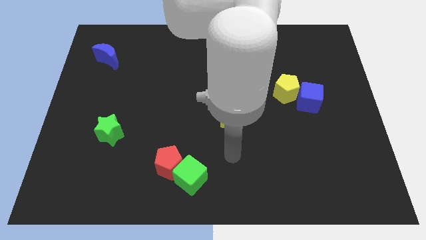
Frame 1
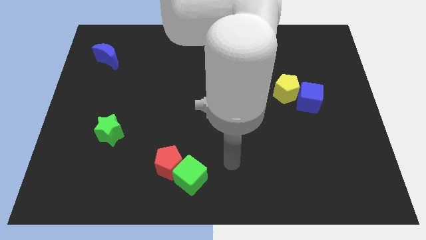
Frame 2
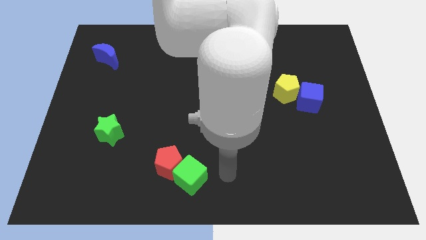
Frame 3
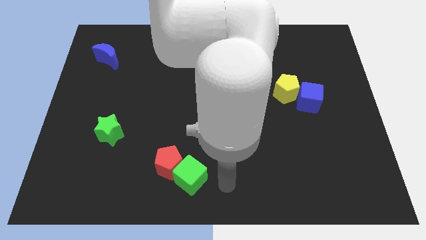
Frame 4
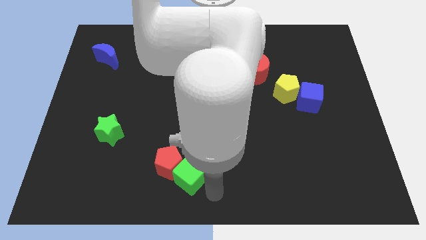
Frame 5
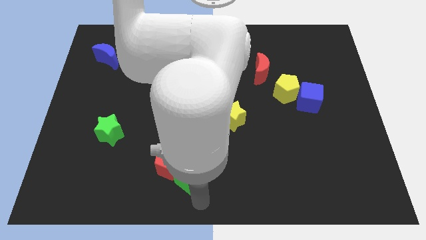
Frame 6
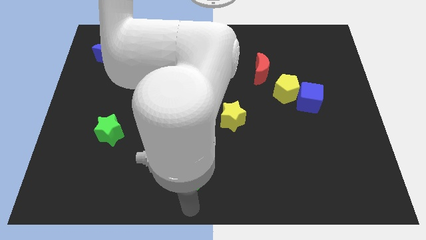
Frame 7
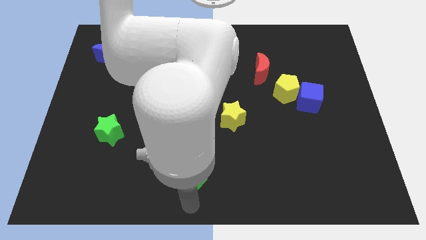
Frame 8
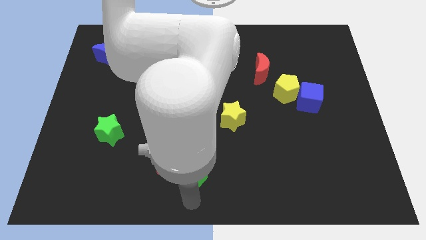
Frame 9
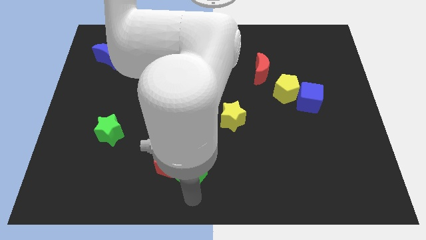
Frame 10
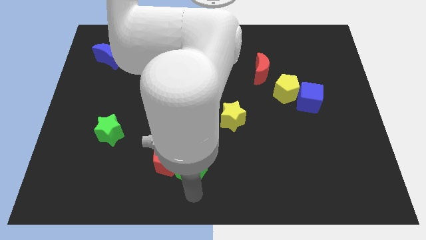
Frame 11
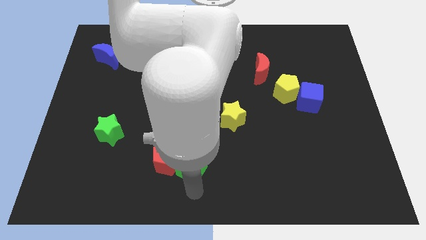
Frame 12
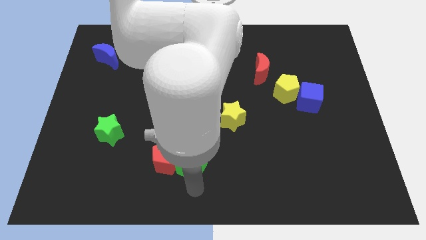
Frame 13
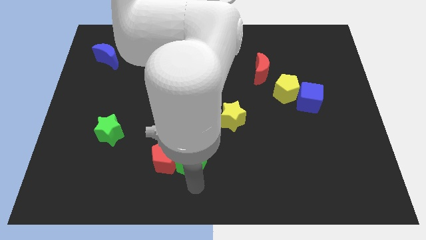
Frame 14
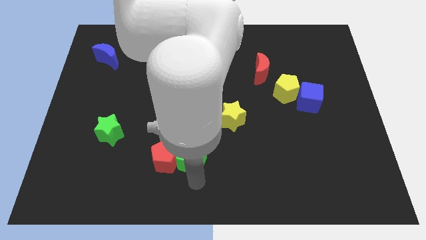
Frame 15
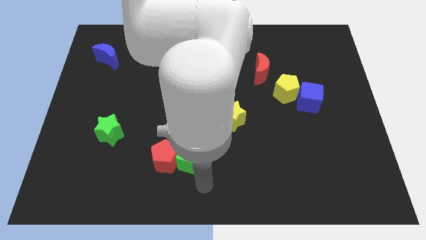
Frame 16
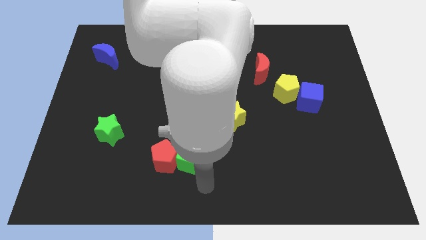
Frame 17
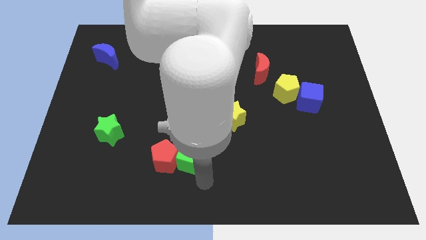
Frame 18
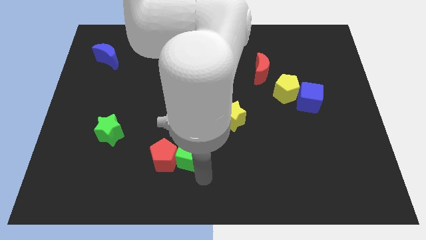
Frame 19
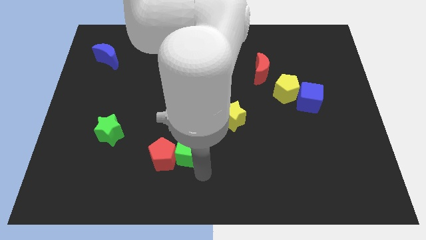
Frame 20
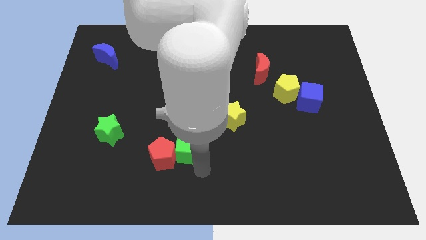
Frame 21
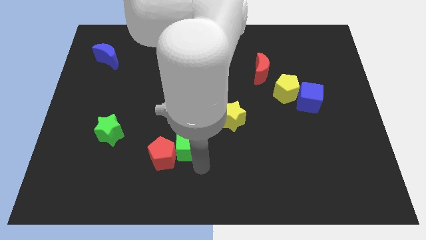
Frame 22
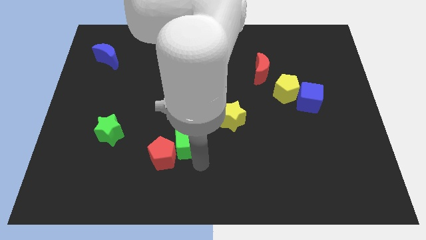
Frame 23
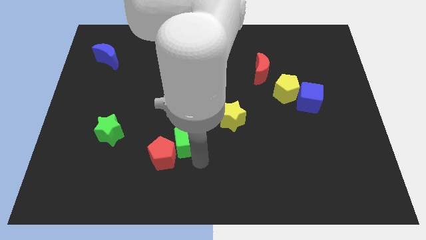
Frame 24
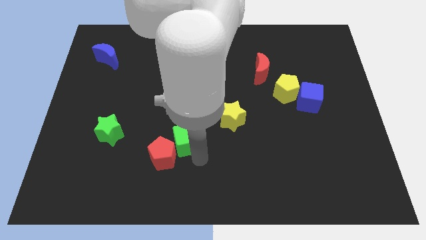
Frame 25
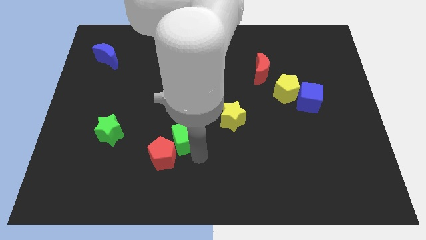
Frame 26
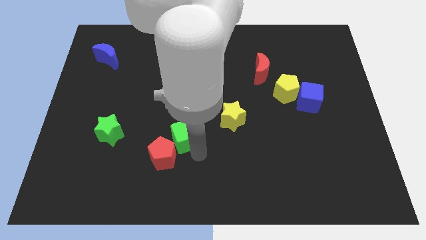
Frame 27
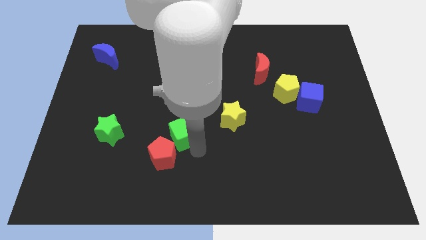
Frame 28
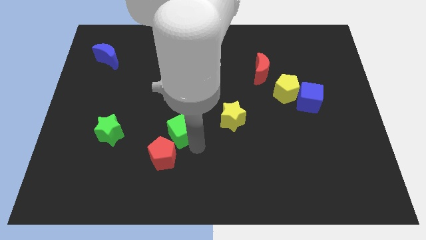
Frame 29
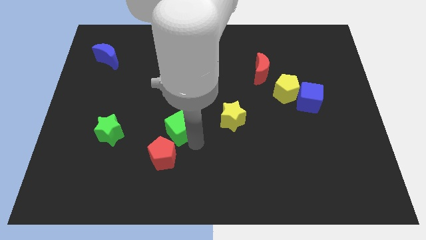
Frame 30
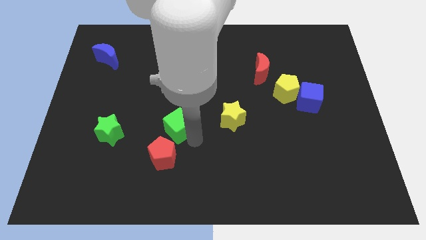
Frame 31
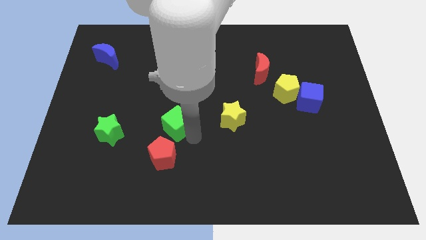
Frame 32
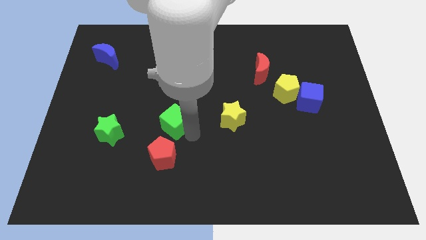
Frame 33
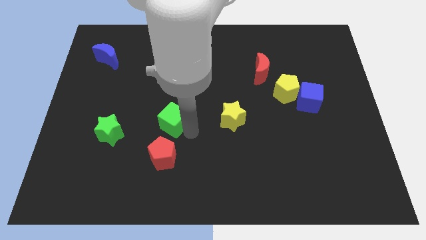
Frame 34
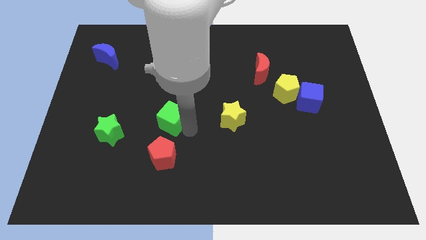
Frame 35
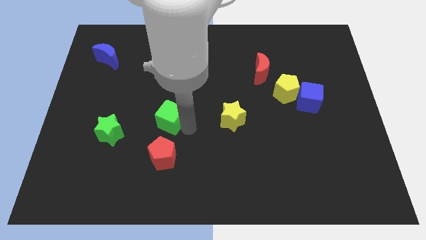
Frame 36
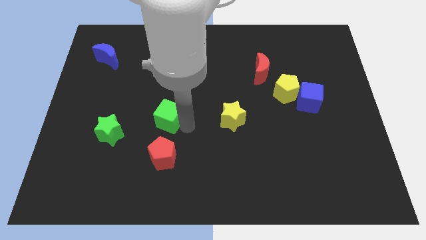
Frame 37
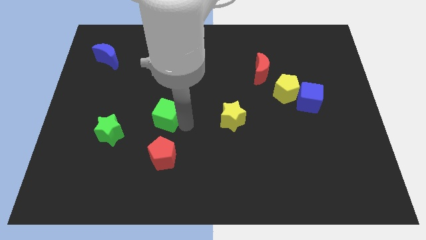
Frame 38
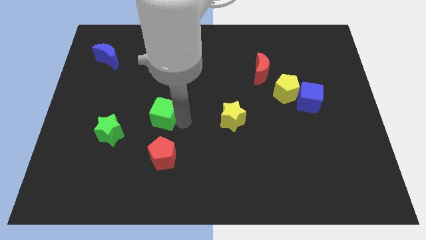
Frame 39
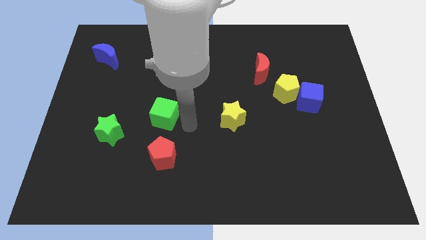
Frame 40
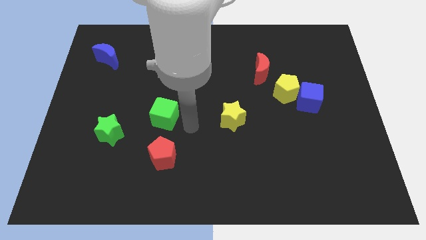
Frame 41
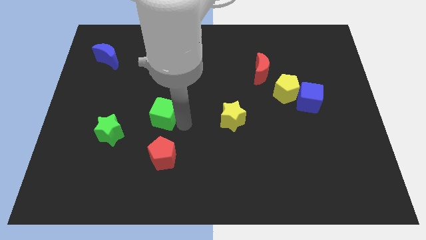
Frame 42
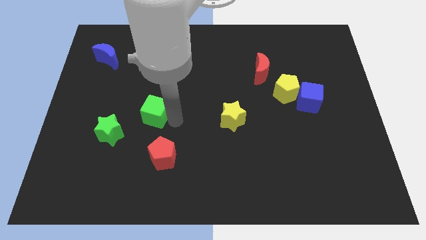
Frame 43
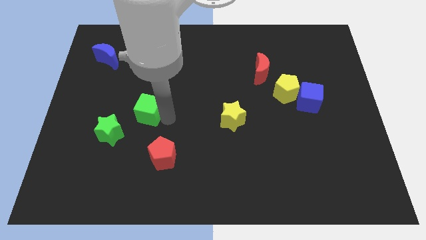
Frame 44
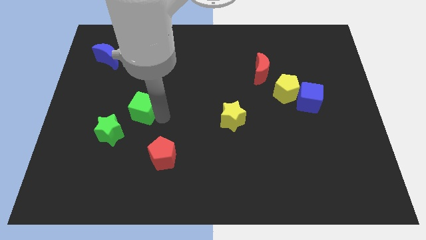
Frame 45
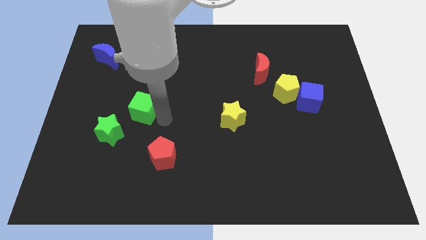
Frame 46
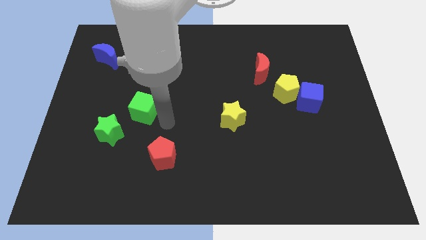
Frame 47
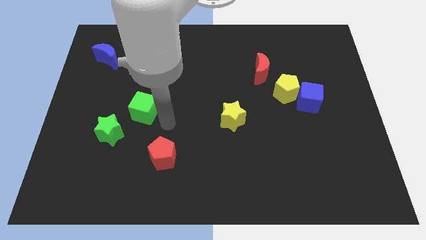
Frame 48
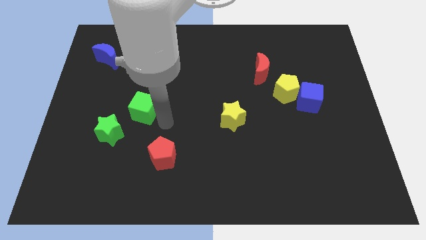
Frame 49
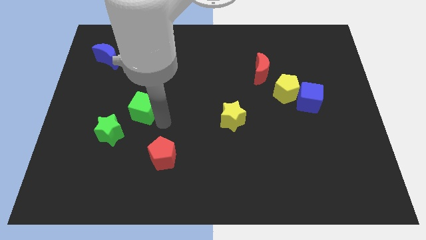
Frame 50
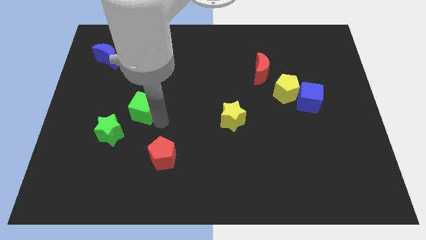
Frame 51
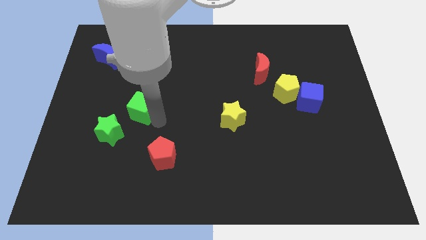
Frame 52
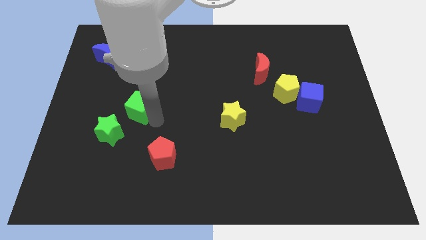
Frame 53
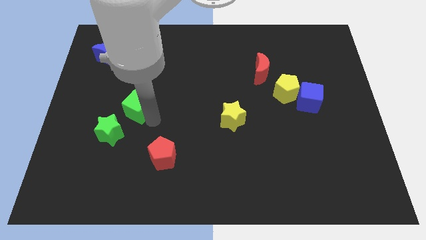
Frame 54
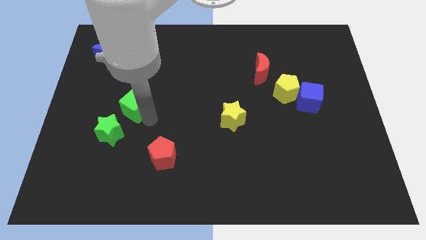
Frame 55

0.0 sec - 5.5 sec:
slide the green cube to the top side of the green star

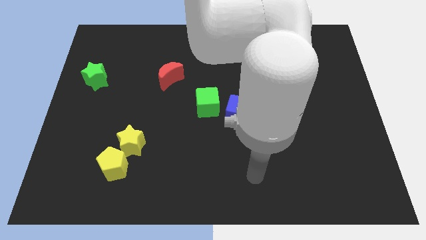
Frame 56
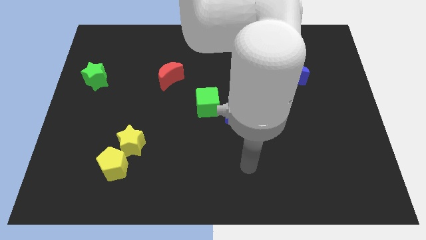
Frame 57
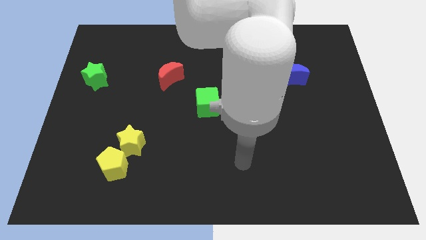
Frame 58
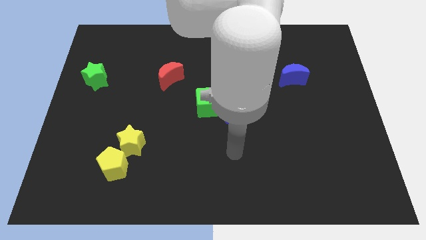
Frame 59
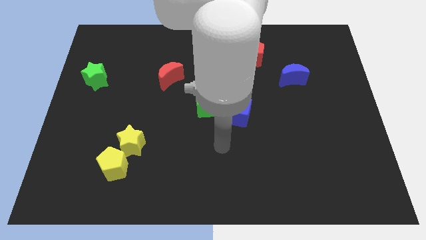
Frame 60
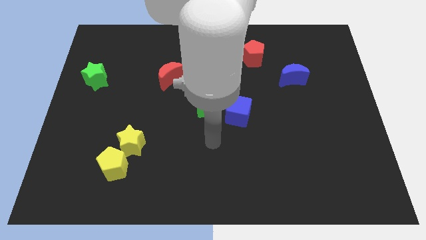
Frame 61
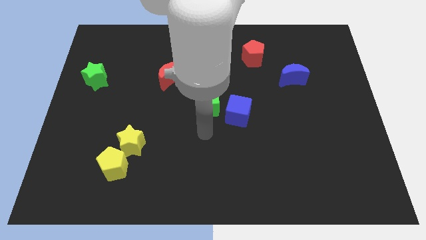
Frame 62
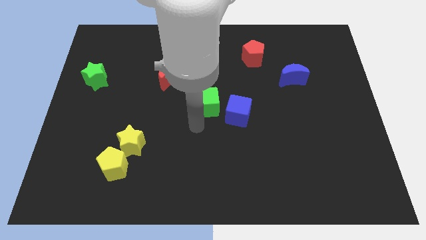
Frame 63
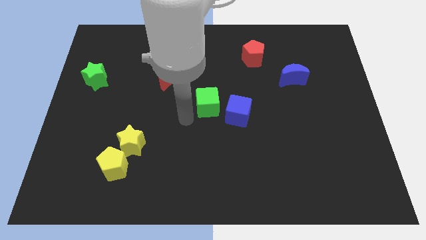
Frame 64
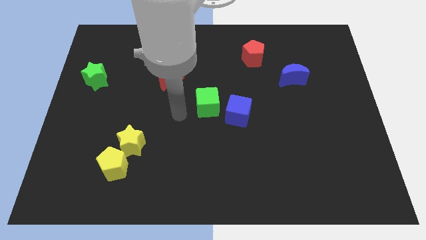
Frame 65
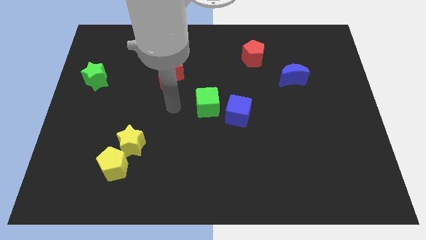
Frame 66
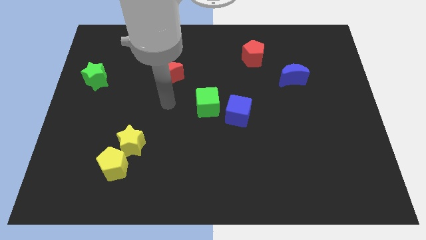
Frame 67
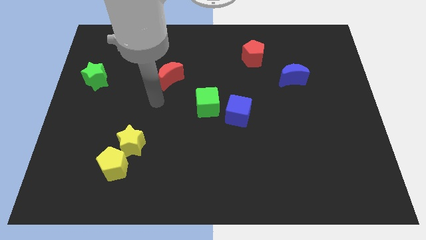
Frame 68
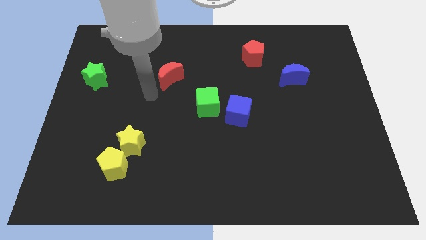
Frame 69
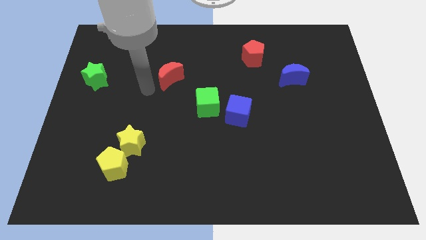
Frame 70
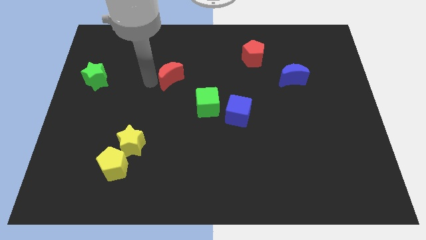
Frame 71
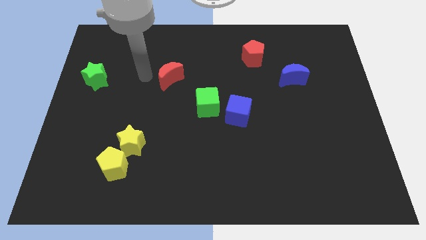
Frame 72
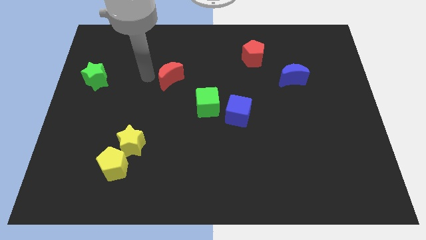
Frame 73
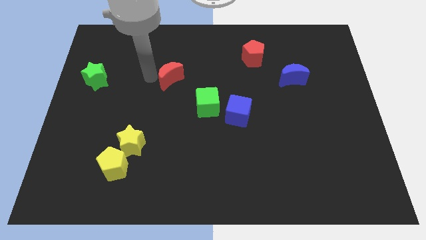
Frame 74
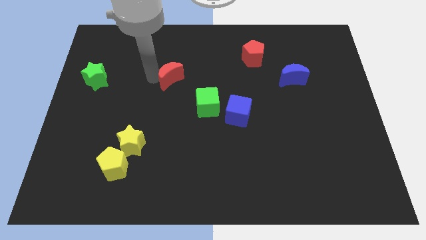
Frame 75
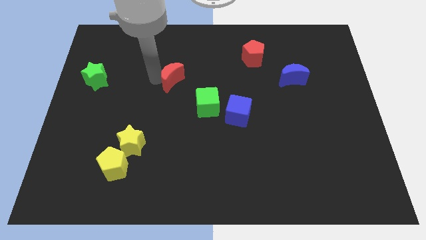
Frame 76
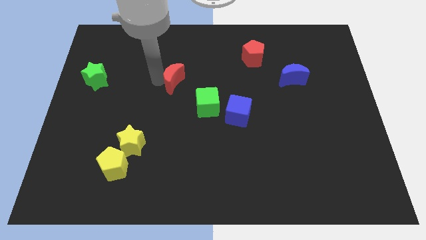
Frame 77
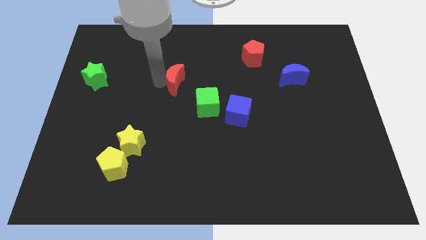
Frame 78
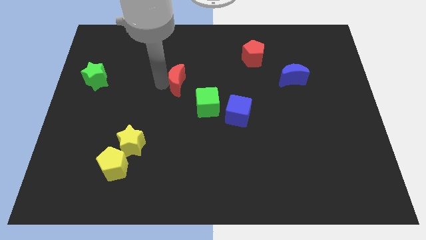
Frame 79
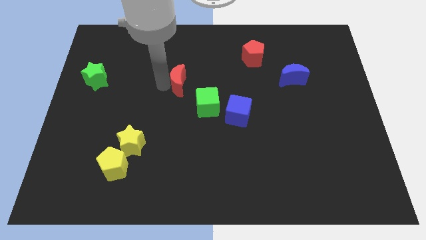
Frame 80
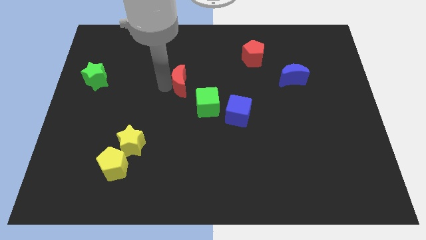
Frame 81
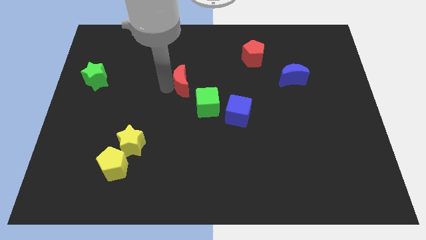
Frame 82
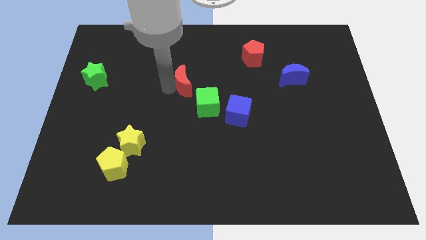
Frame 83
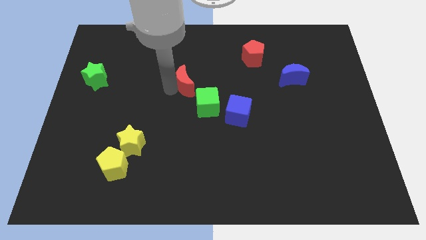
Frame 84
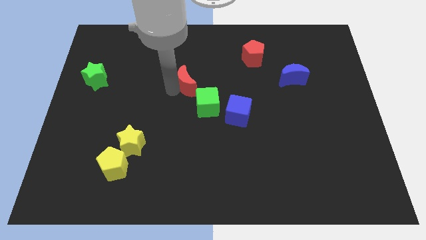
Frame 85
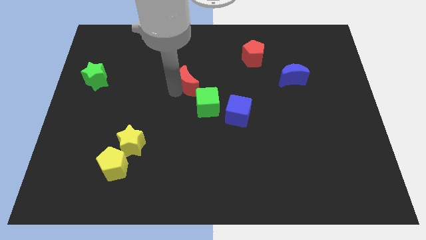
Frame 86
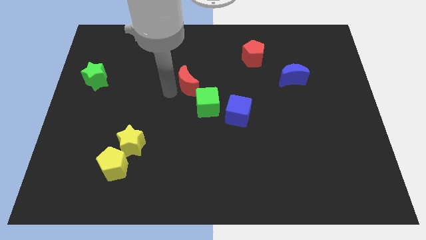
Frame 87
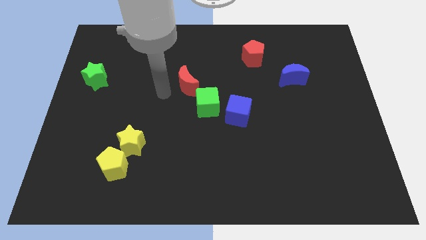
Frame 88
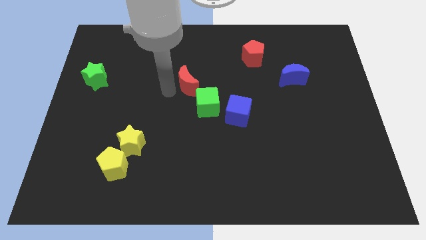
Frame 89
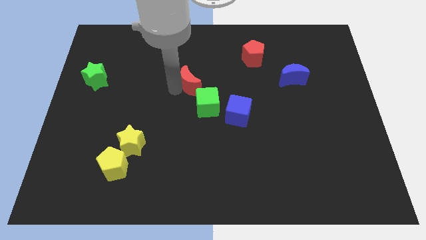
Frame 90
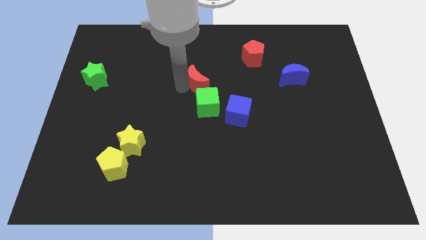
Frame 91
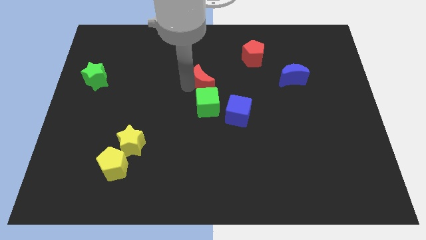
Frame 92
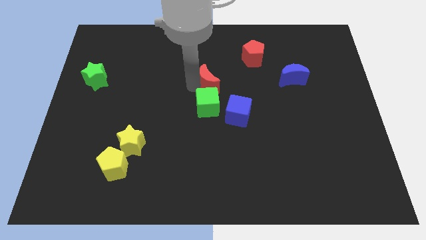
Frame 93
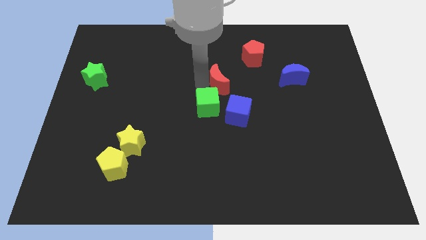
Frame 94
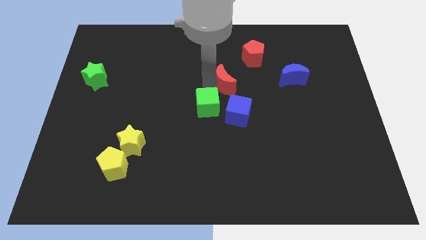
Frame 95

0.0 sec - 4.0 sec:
push the red moon diagonally down and to the left of the red pentagon
